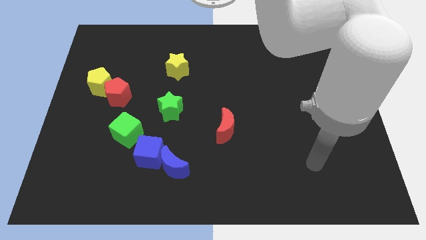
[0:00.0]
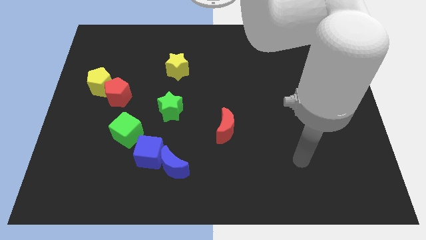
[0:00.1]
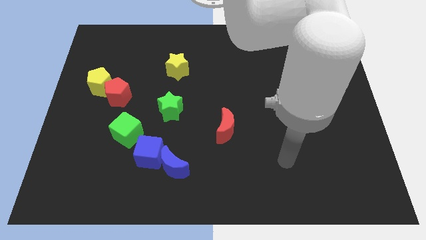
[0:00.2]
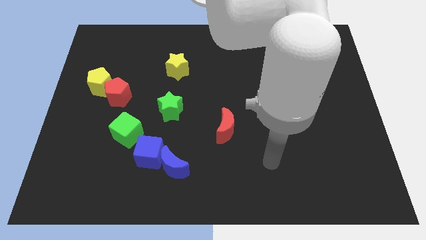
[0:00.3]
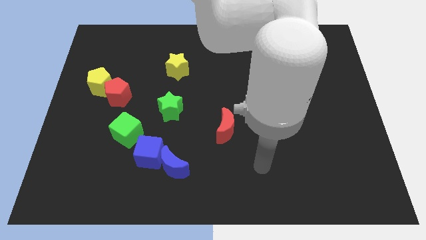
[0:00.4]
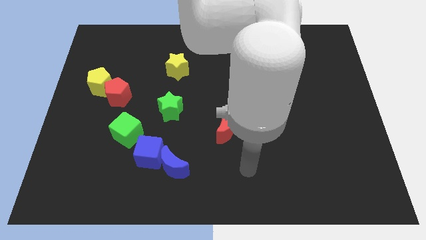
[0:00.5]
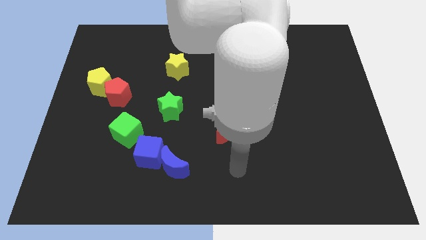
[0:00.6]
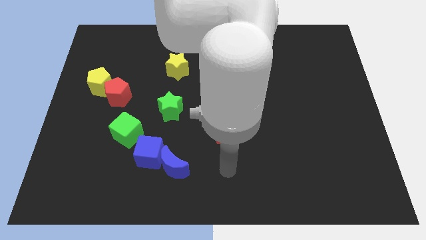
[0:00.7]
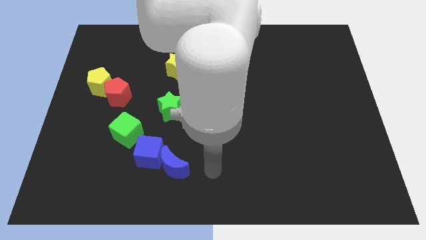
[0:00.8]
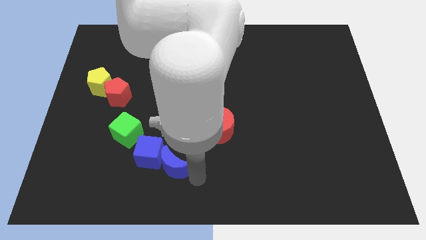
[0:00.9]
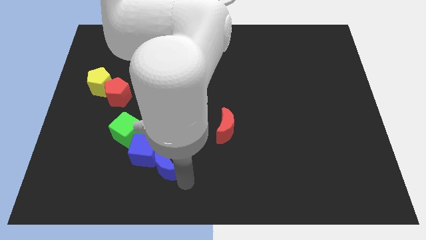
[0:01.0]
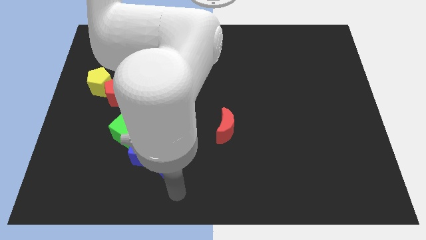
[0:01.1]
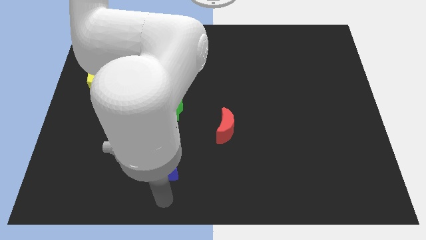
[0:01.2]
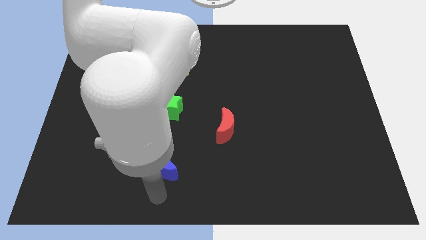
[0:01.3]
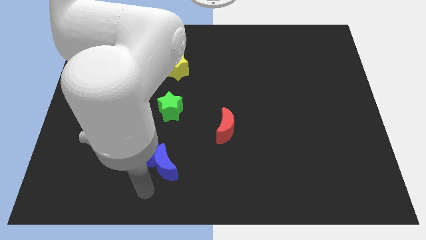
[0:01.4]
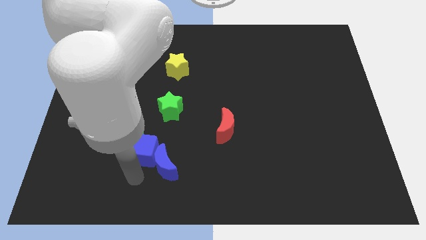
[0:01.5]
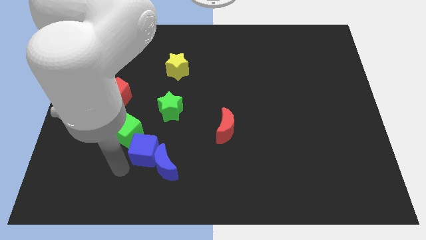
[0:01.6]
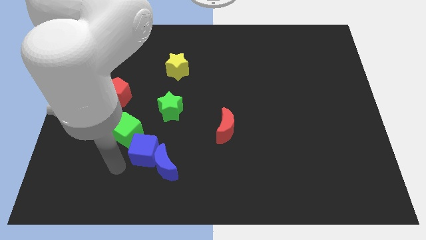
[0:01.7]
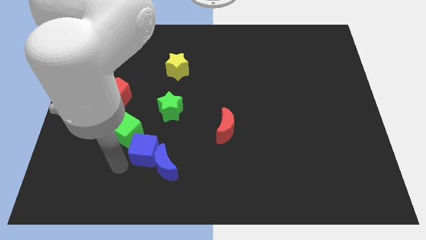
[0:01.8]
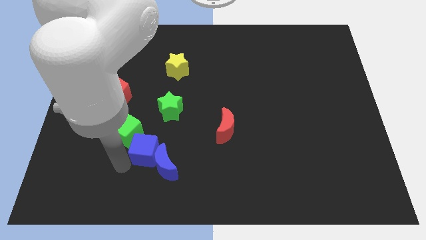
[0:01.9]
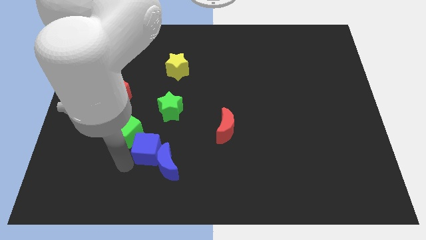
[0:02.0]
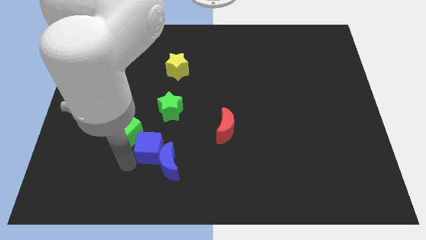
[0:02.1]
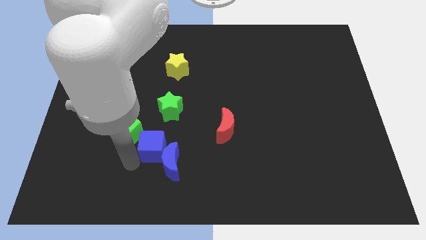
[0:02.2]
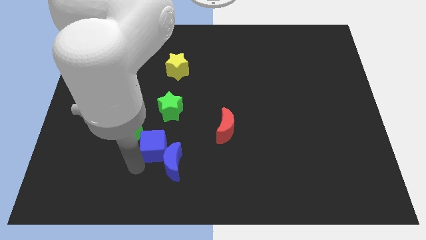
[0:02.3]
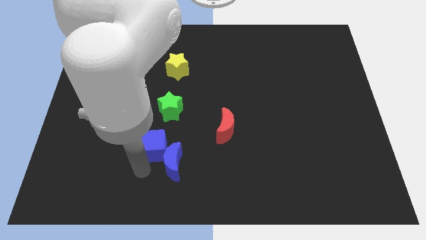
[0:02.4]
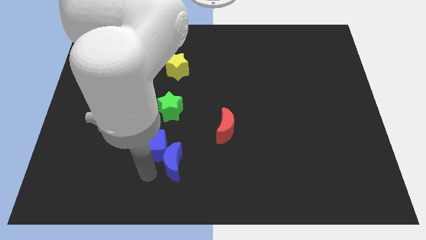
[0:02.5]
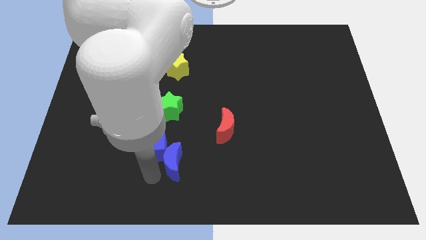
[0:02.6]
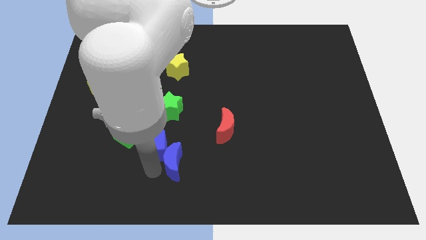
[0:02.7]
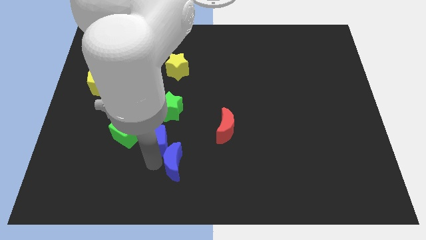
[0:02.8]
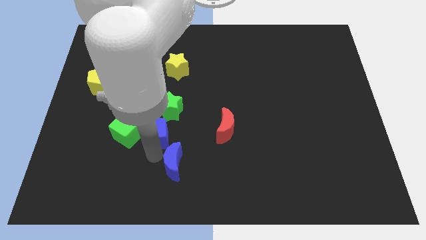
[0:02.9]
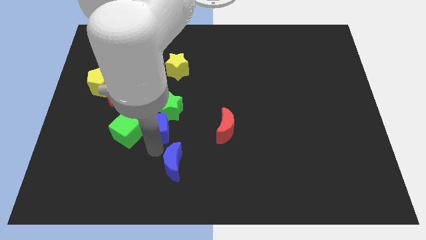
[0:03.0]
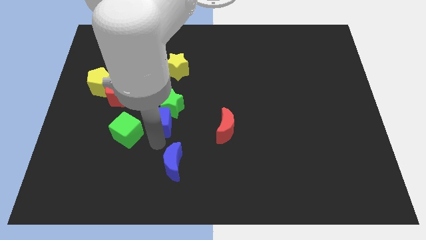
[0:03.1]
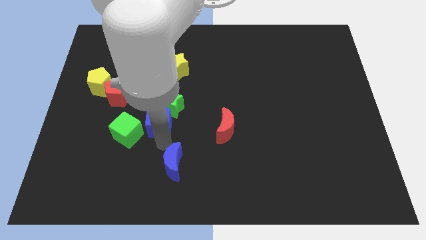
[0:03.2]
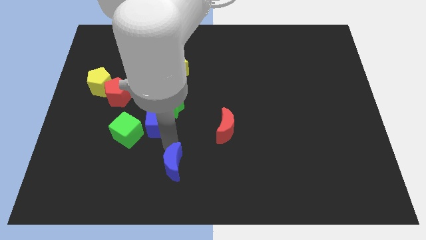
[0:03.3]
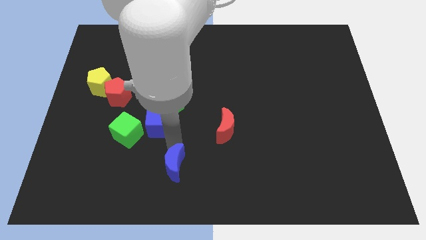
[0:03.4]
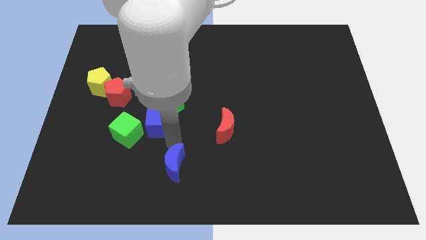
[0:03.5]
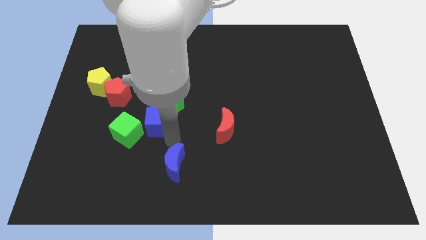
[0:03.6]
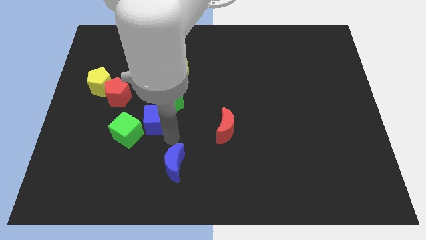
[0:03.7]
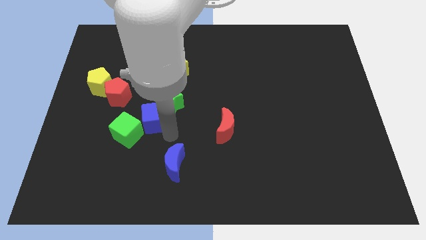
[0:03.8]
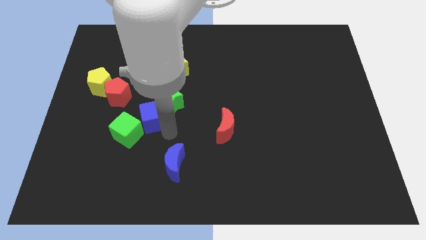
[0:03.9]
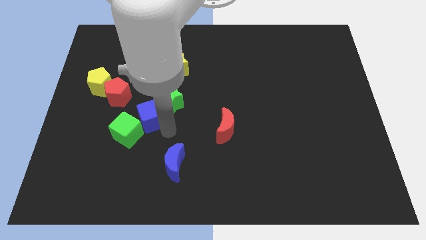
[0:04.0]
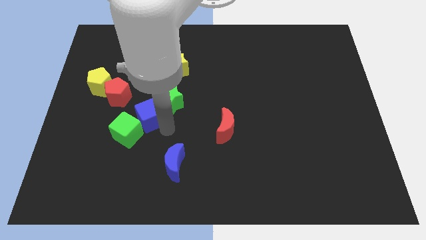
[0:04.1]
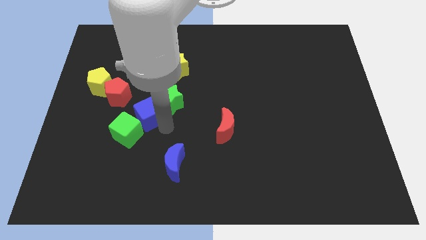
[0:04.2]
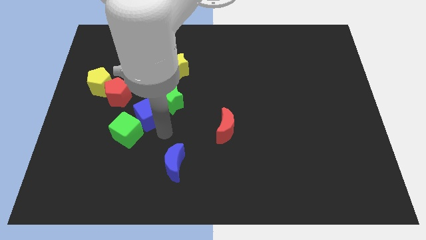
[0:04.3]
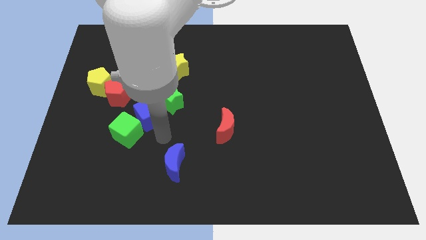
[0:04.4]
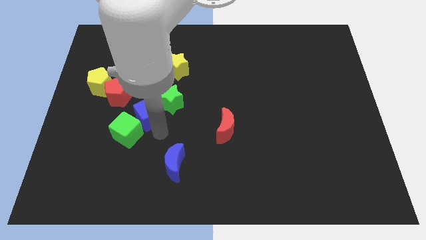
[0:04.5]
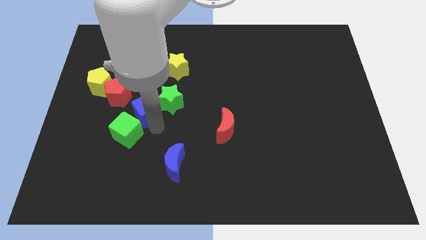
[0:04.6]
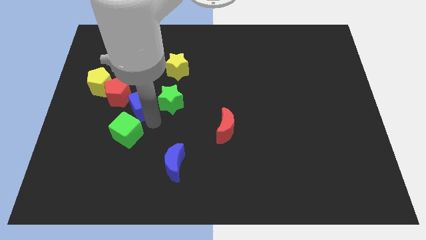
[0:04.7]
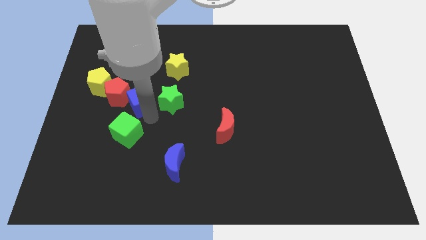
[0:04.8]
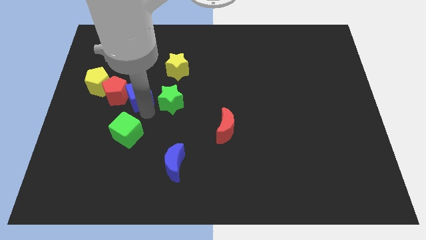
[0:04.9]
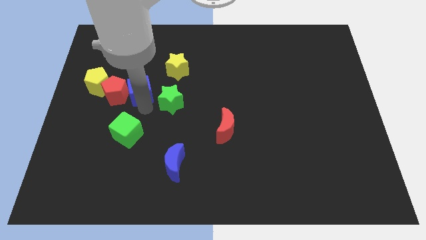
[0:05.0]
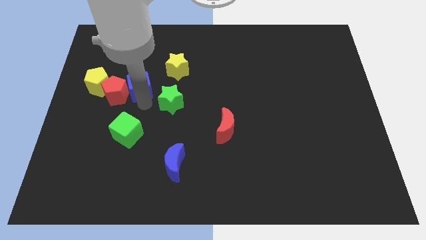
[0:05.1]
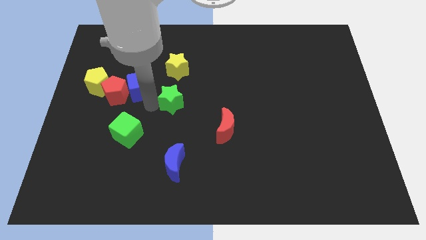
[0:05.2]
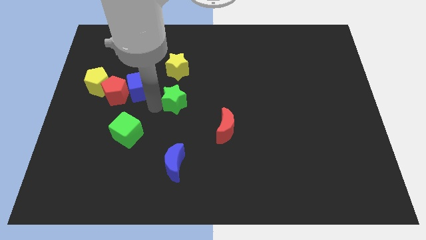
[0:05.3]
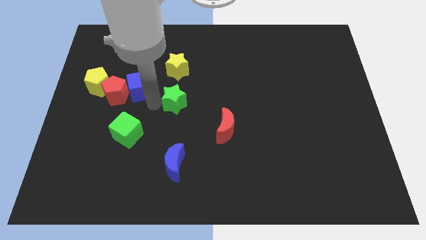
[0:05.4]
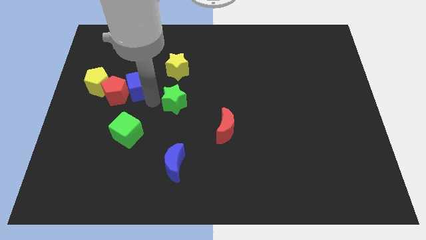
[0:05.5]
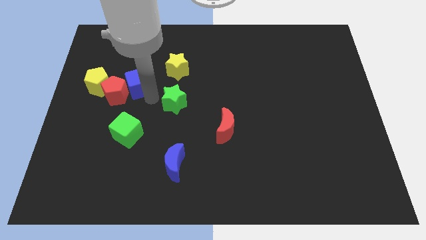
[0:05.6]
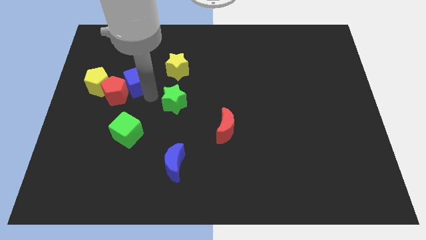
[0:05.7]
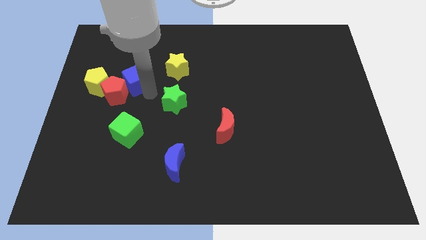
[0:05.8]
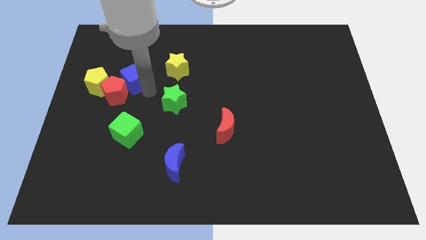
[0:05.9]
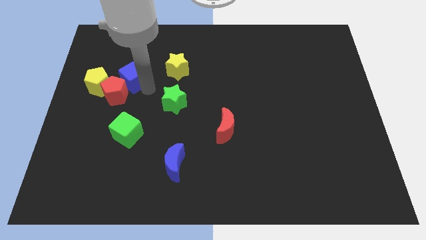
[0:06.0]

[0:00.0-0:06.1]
put the blue cube diagonally up and to the right of the yellow pentagon

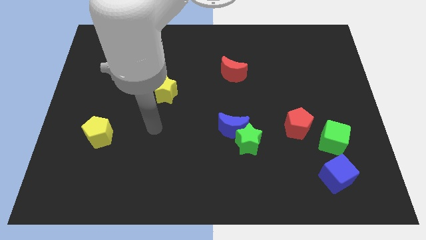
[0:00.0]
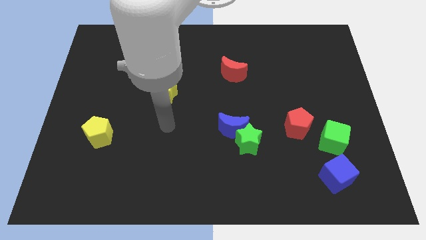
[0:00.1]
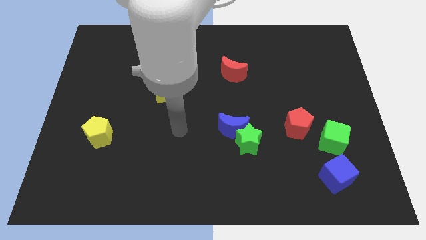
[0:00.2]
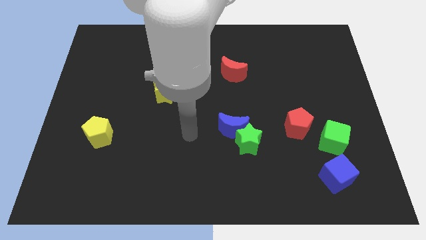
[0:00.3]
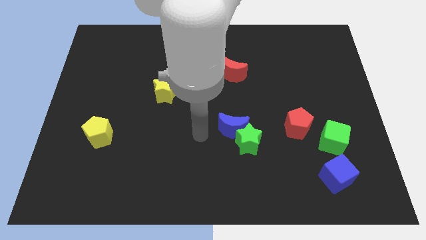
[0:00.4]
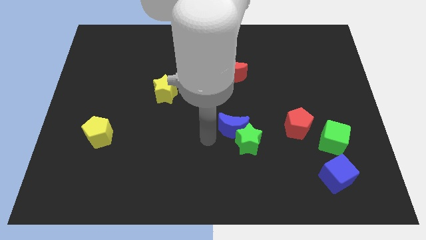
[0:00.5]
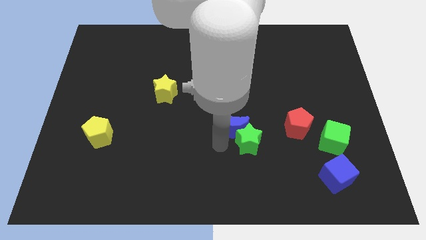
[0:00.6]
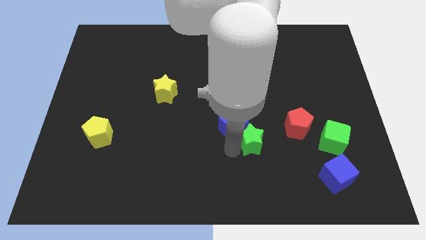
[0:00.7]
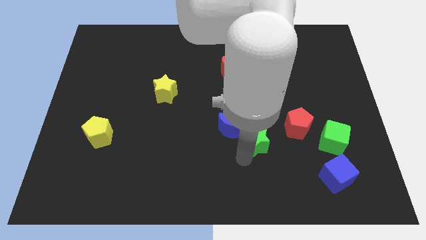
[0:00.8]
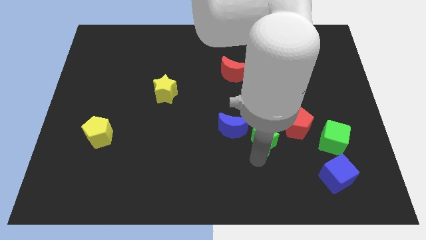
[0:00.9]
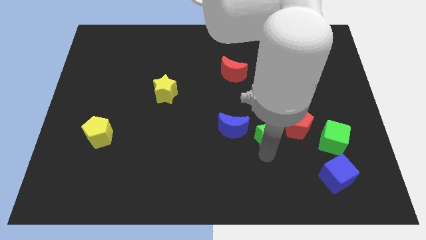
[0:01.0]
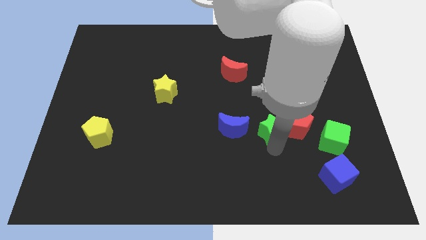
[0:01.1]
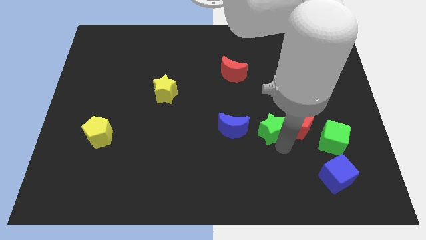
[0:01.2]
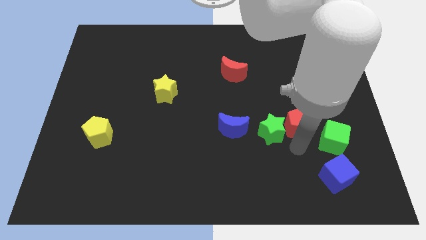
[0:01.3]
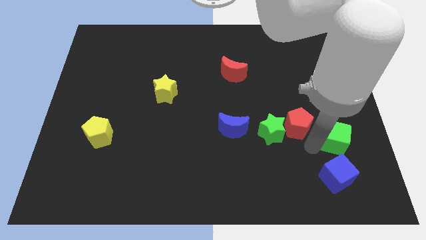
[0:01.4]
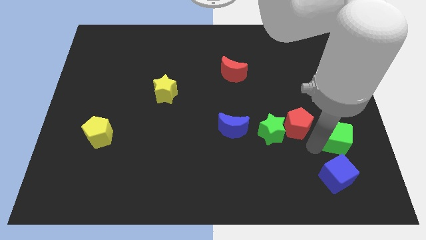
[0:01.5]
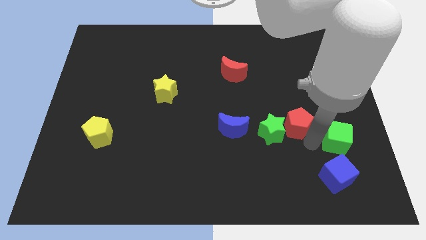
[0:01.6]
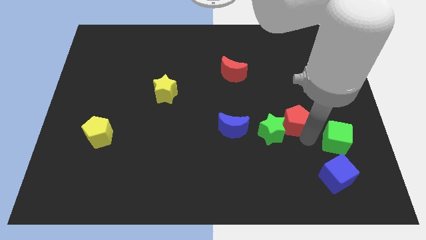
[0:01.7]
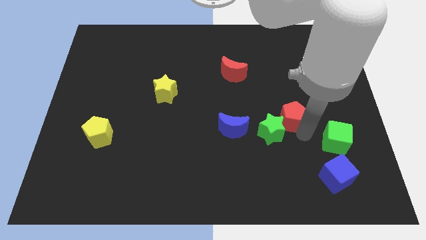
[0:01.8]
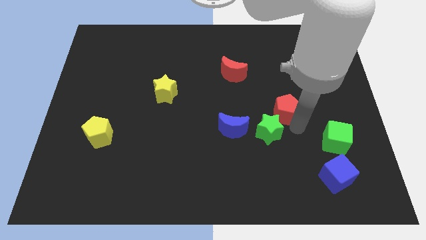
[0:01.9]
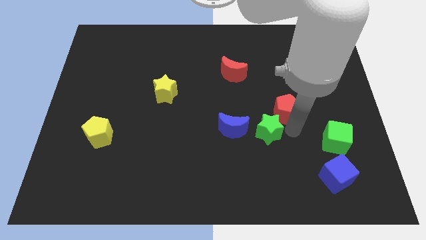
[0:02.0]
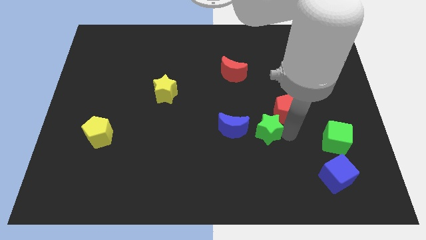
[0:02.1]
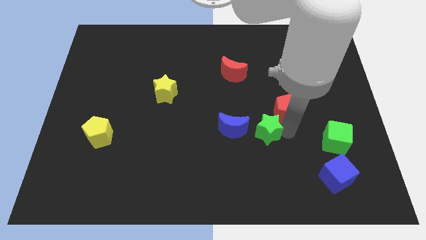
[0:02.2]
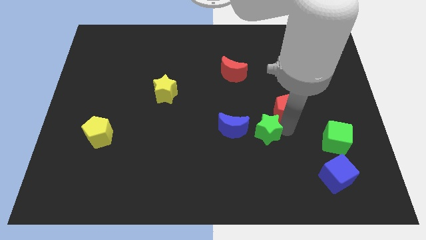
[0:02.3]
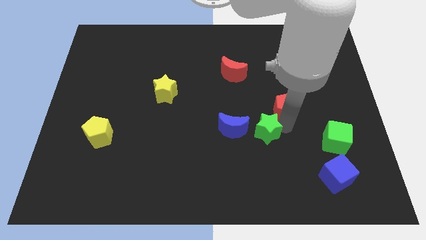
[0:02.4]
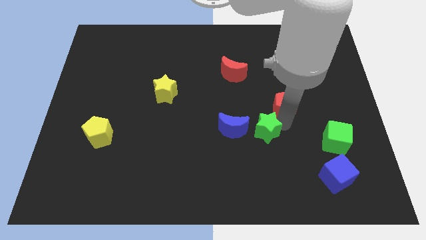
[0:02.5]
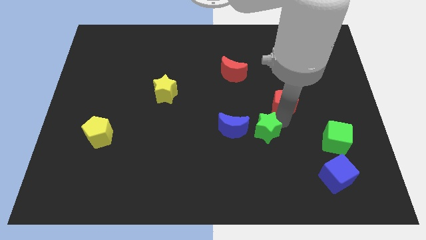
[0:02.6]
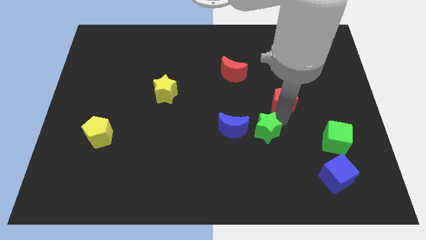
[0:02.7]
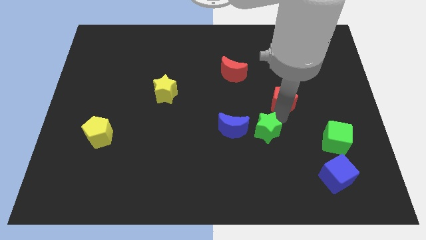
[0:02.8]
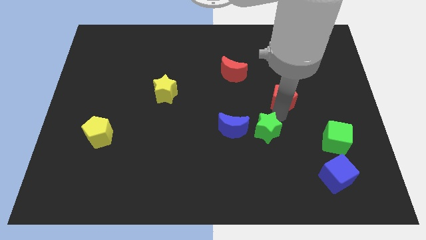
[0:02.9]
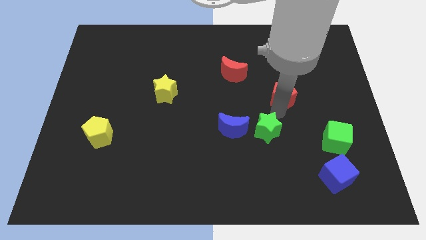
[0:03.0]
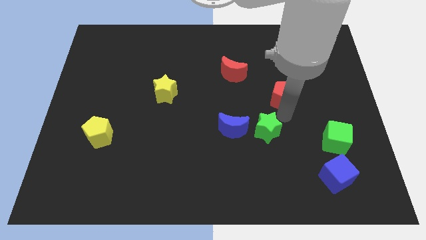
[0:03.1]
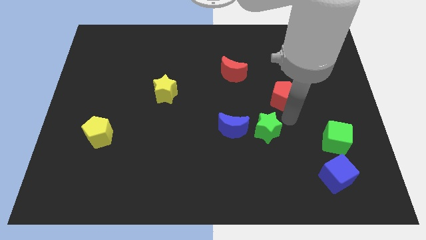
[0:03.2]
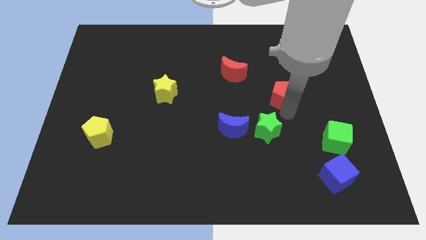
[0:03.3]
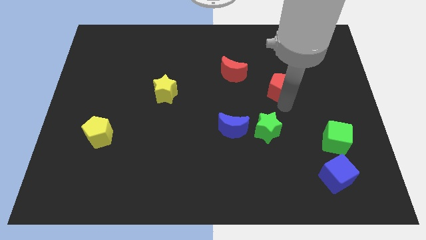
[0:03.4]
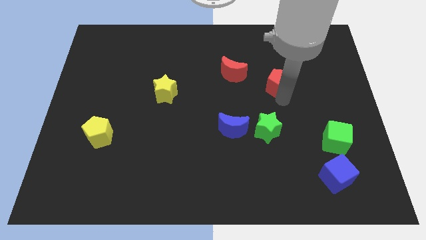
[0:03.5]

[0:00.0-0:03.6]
slide the red pentagon to the right side of the red moon
